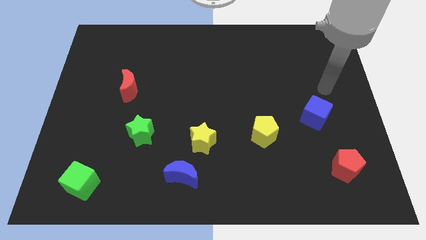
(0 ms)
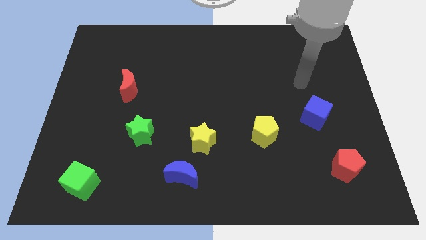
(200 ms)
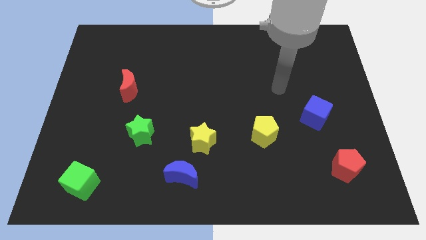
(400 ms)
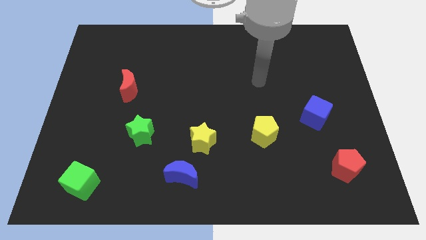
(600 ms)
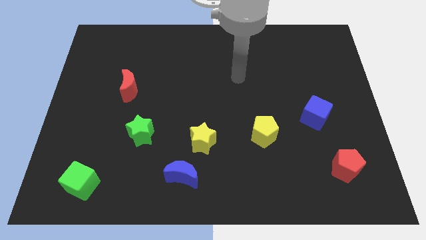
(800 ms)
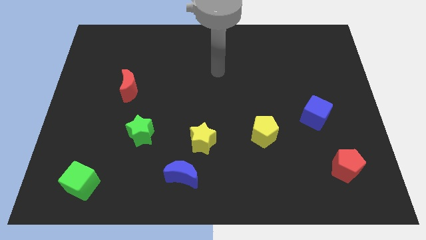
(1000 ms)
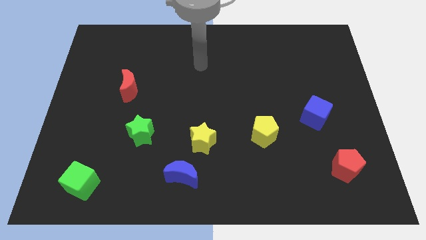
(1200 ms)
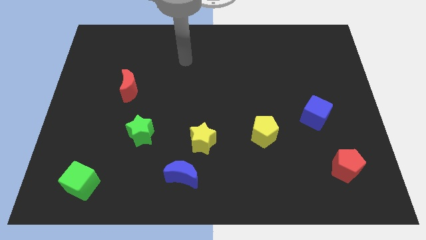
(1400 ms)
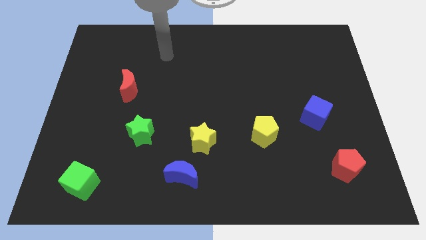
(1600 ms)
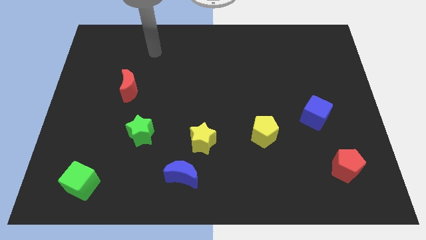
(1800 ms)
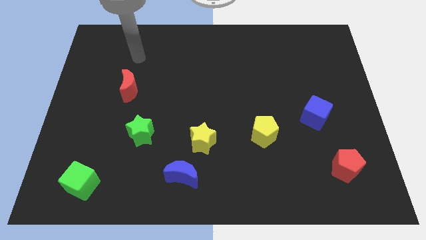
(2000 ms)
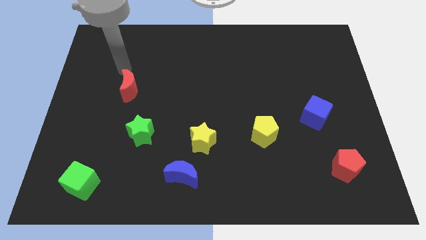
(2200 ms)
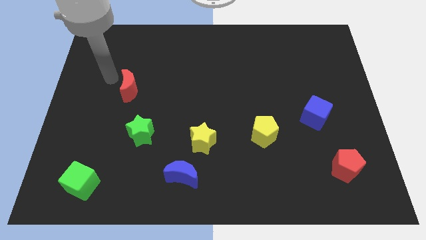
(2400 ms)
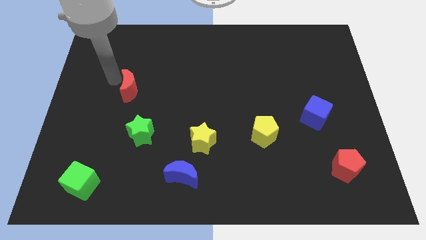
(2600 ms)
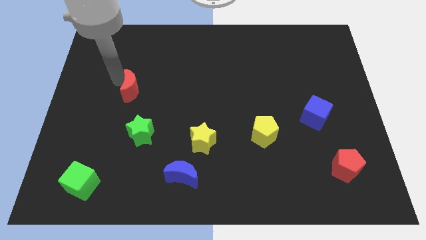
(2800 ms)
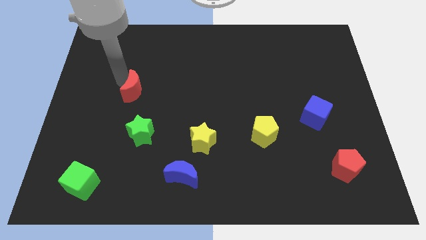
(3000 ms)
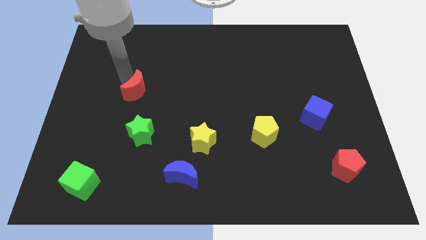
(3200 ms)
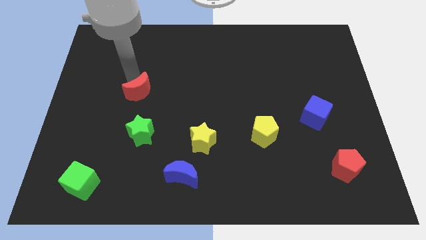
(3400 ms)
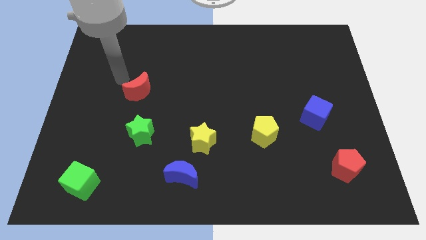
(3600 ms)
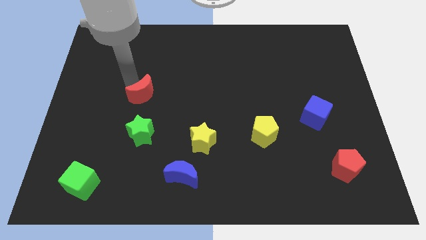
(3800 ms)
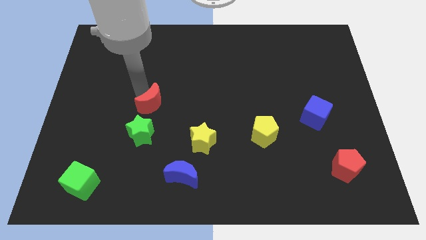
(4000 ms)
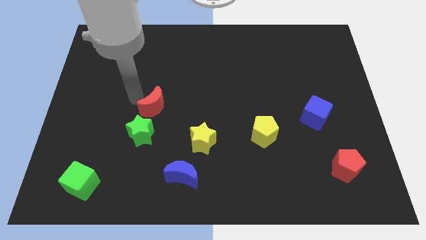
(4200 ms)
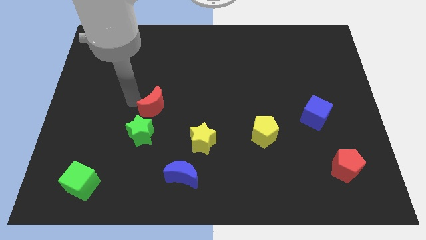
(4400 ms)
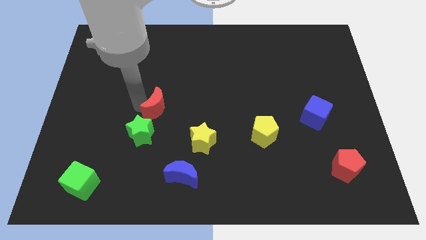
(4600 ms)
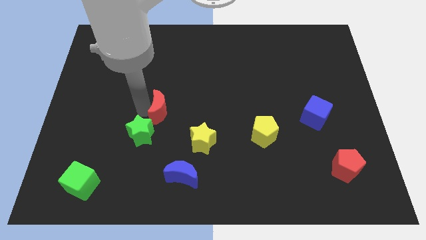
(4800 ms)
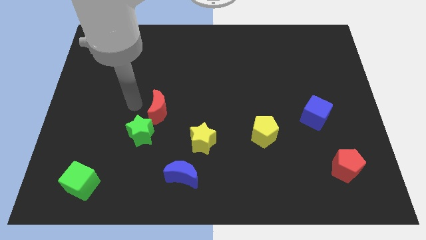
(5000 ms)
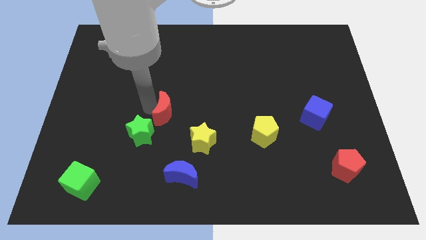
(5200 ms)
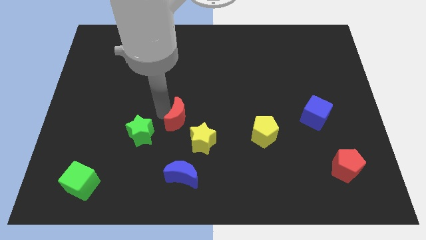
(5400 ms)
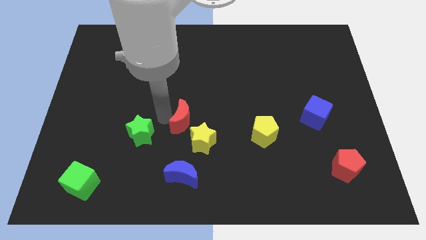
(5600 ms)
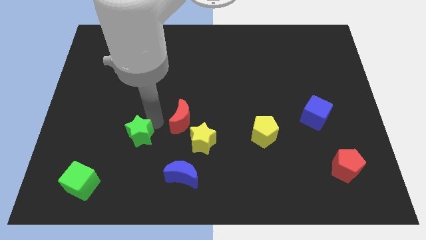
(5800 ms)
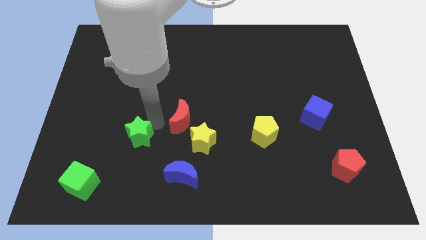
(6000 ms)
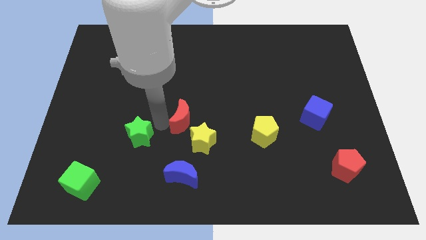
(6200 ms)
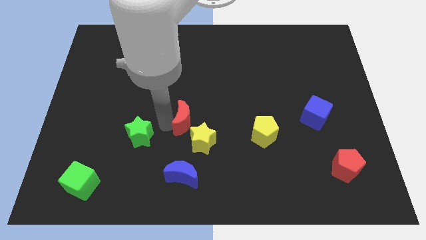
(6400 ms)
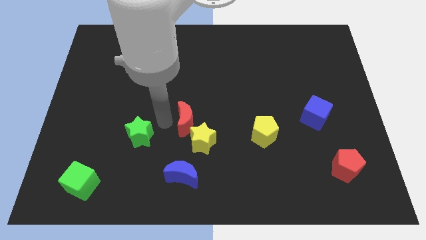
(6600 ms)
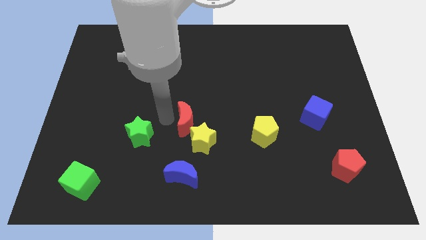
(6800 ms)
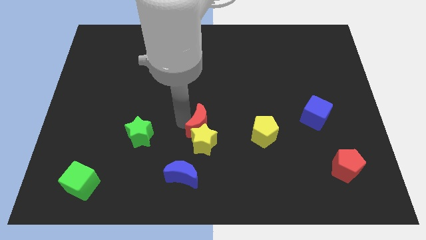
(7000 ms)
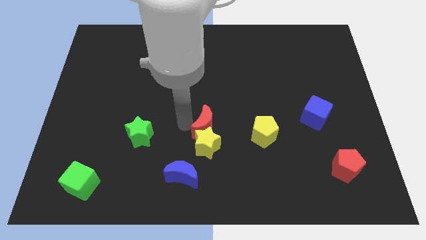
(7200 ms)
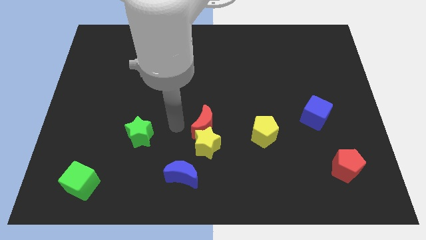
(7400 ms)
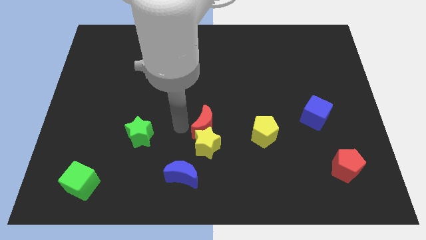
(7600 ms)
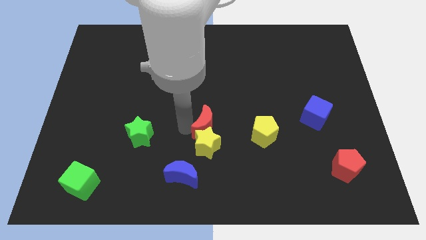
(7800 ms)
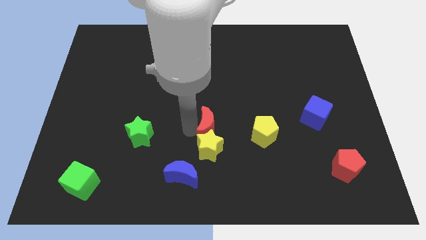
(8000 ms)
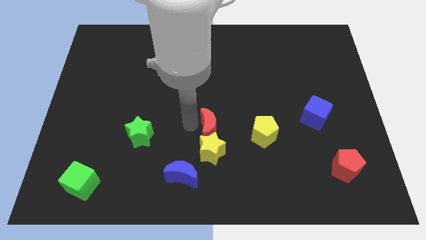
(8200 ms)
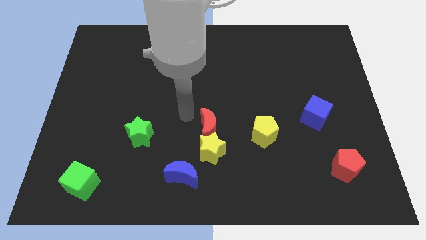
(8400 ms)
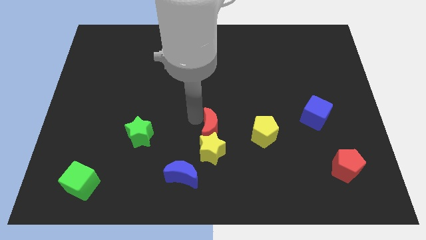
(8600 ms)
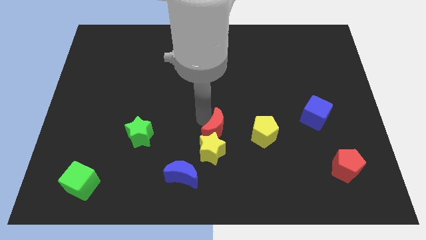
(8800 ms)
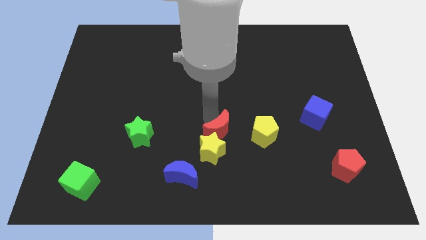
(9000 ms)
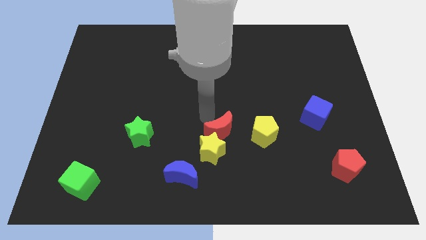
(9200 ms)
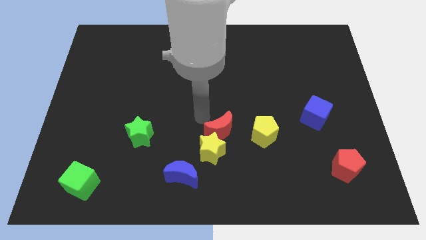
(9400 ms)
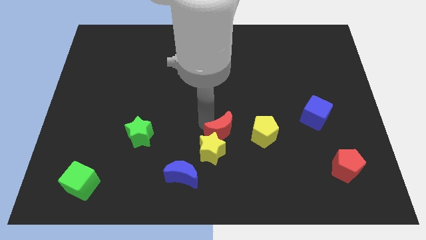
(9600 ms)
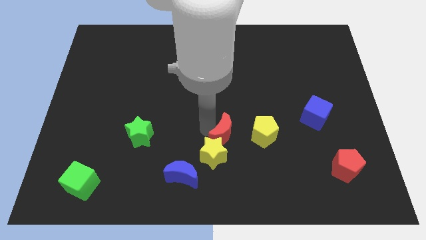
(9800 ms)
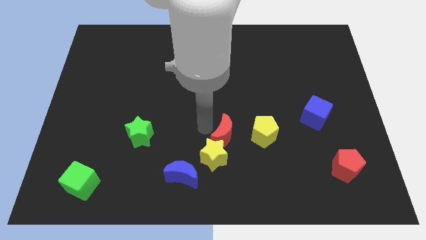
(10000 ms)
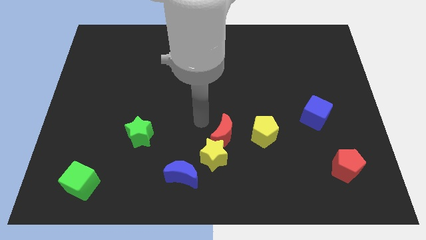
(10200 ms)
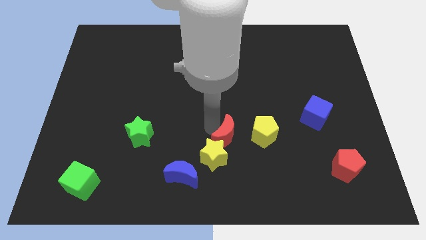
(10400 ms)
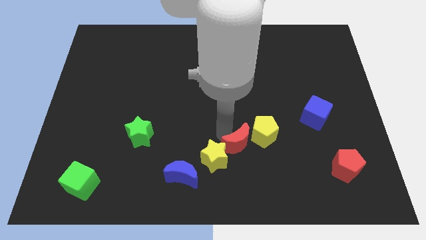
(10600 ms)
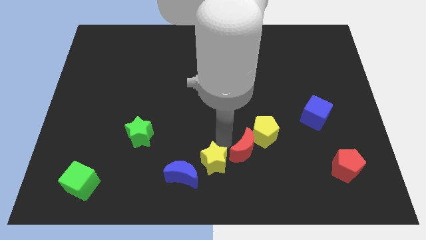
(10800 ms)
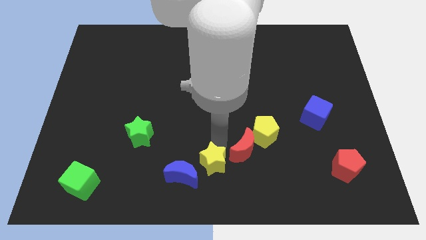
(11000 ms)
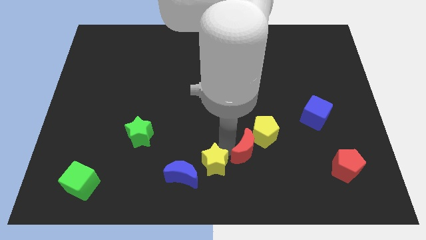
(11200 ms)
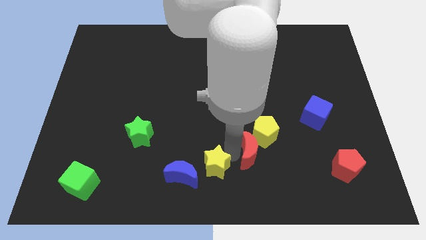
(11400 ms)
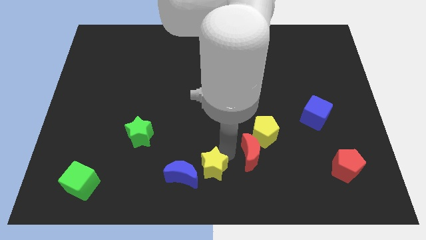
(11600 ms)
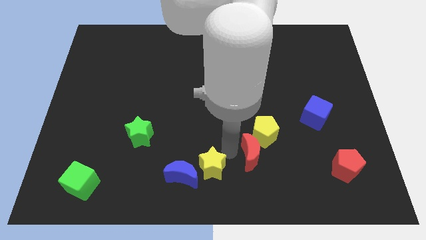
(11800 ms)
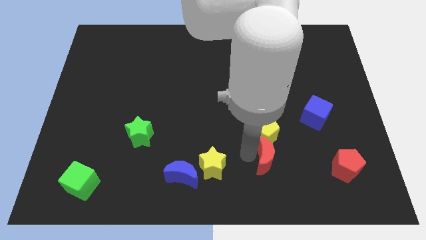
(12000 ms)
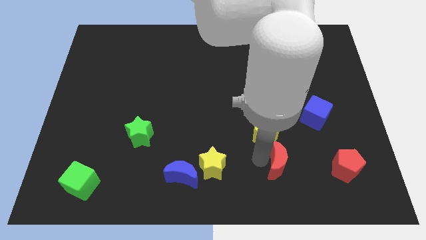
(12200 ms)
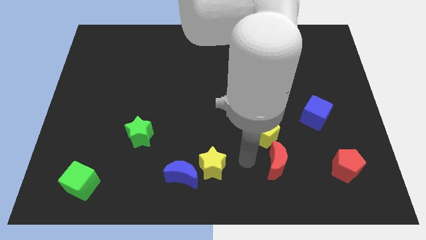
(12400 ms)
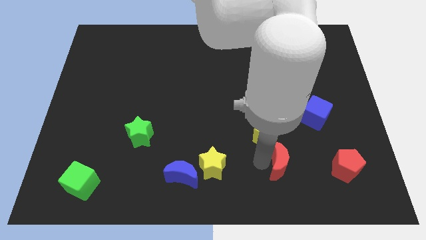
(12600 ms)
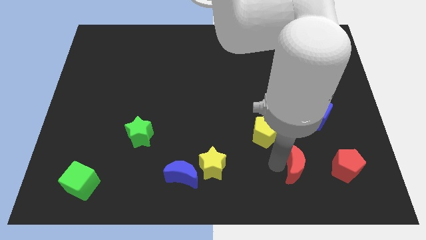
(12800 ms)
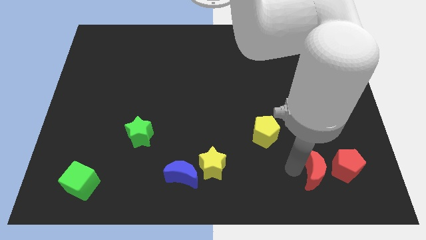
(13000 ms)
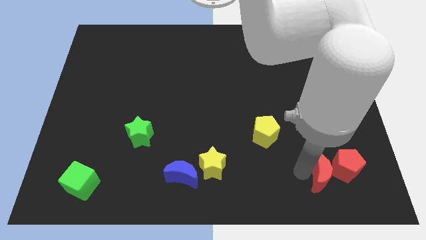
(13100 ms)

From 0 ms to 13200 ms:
push the red moon close to the red pentagon
